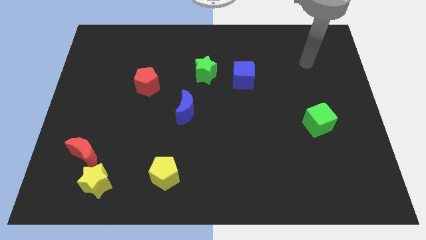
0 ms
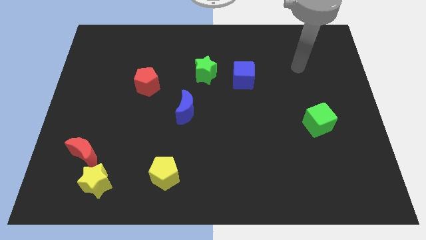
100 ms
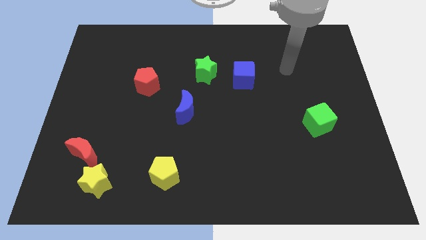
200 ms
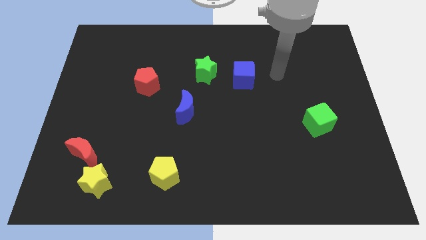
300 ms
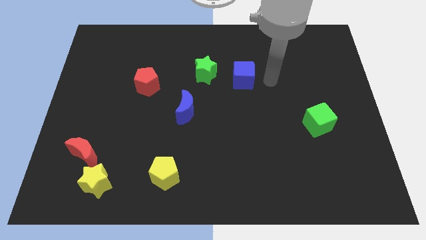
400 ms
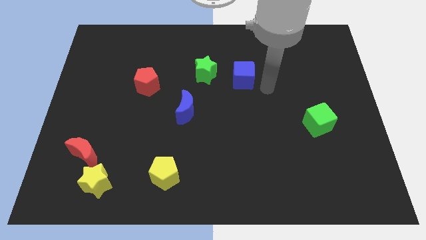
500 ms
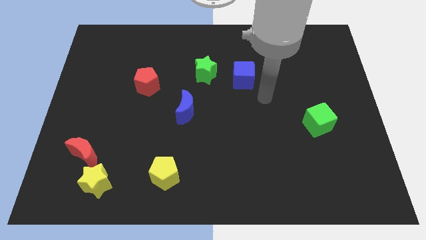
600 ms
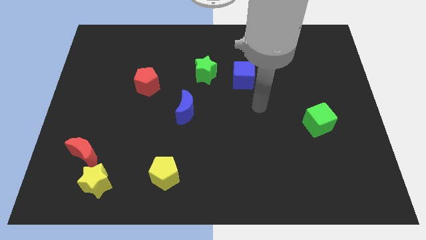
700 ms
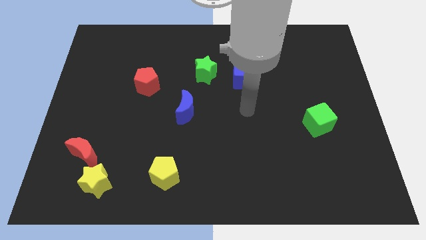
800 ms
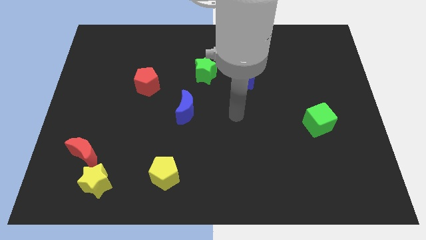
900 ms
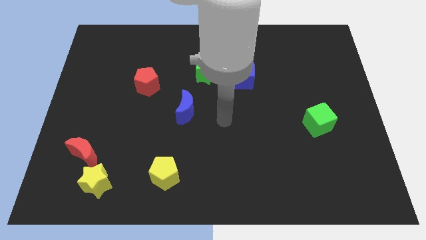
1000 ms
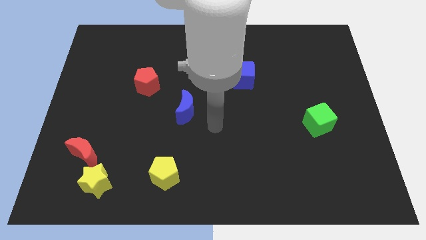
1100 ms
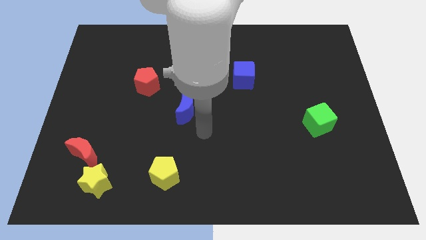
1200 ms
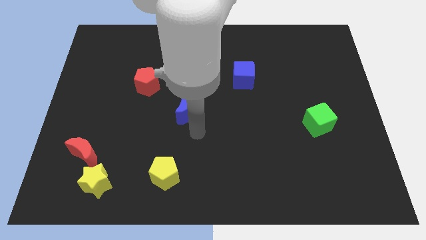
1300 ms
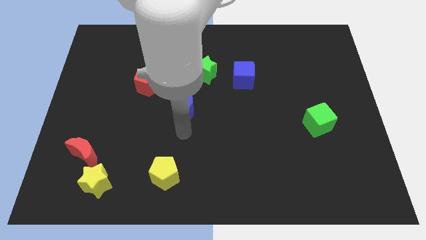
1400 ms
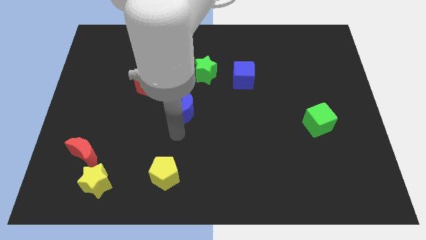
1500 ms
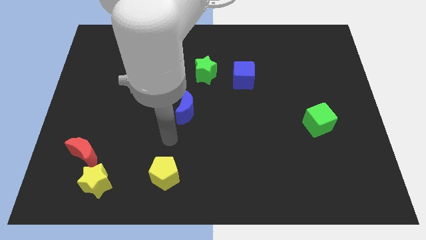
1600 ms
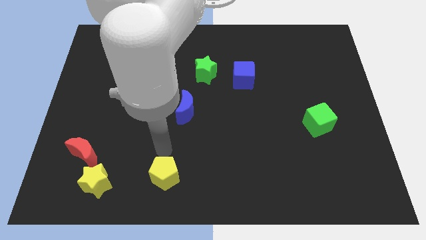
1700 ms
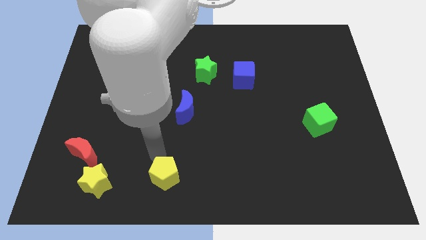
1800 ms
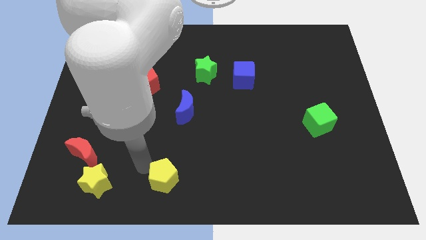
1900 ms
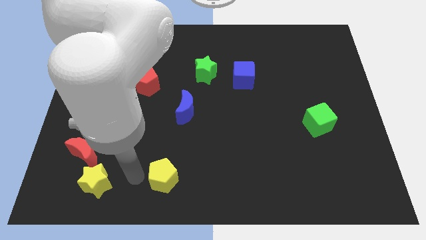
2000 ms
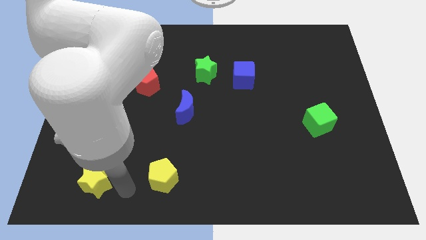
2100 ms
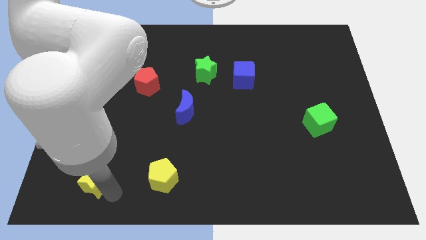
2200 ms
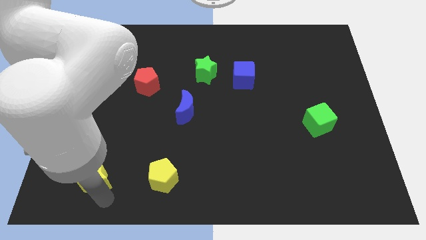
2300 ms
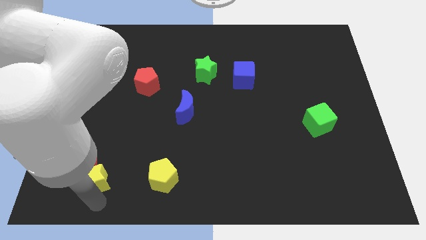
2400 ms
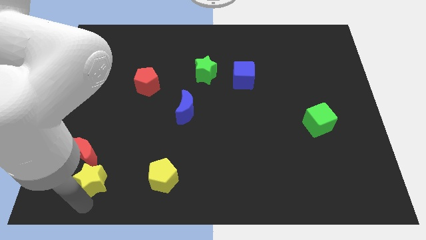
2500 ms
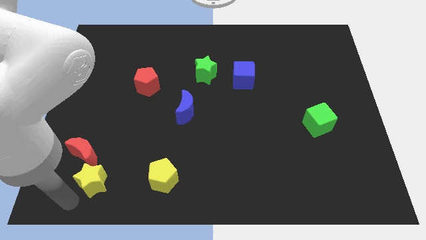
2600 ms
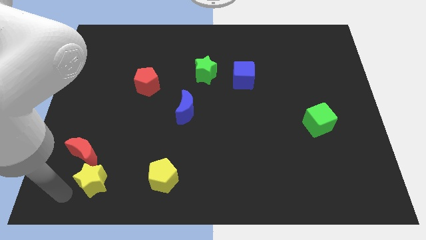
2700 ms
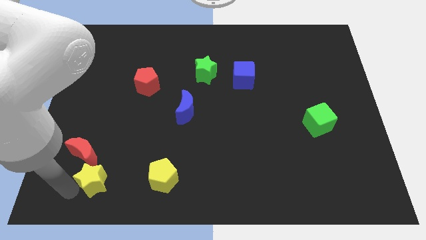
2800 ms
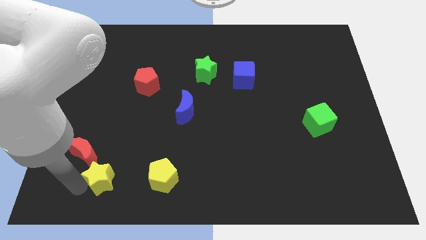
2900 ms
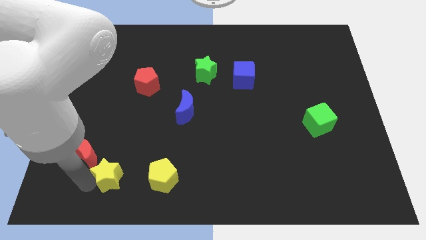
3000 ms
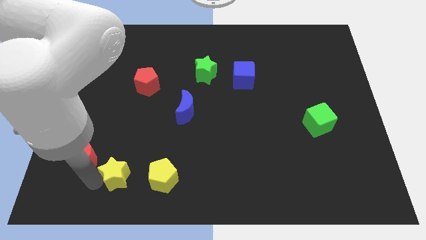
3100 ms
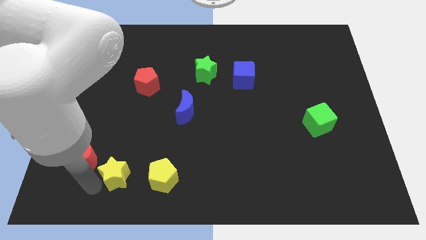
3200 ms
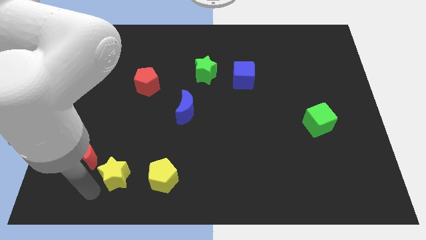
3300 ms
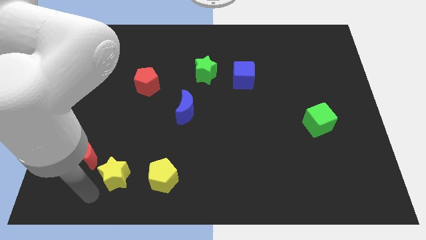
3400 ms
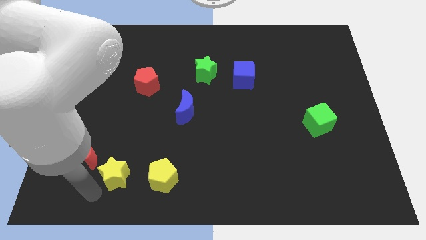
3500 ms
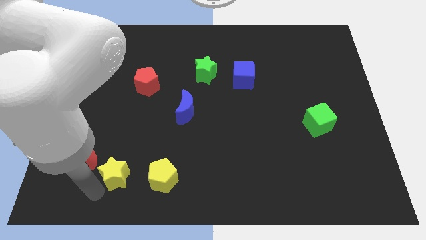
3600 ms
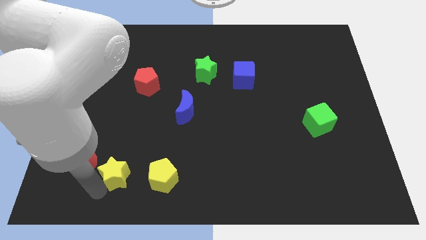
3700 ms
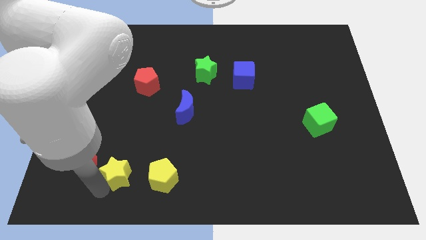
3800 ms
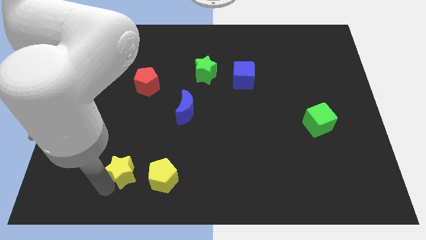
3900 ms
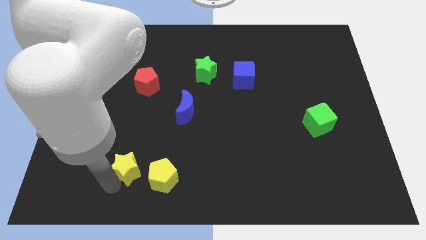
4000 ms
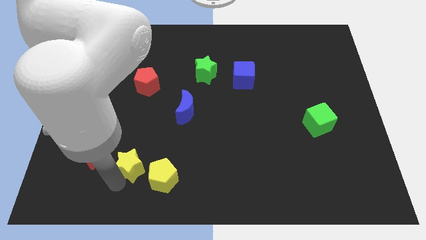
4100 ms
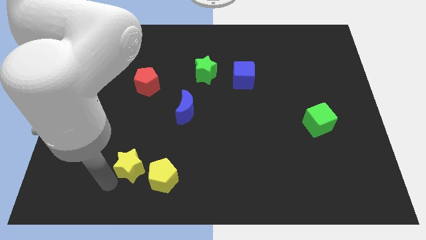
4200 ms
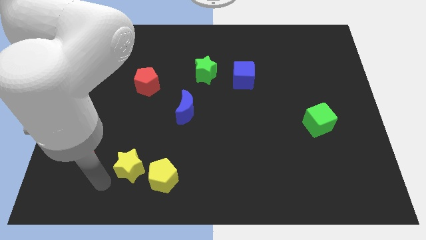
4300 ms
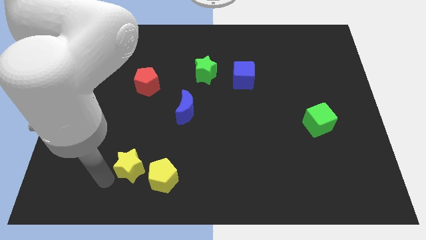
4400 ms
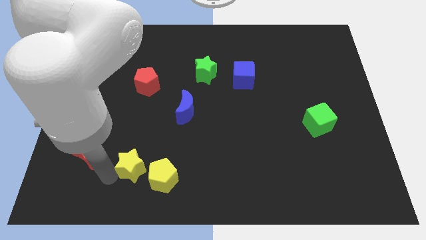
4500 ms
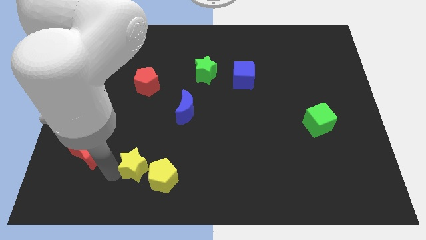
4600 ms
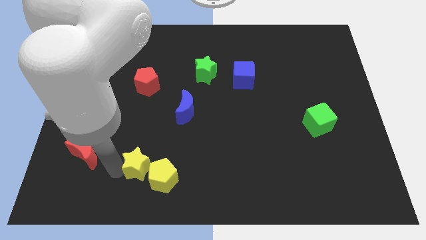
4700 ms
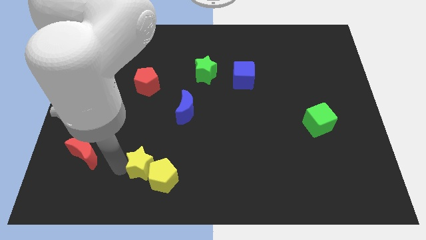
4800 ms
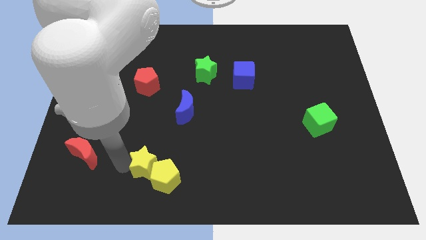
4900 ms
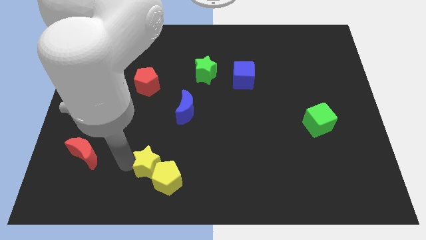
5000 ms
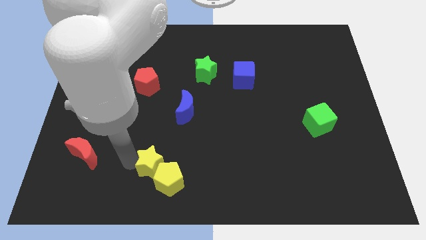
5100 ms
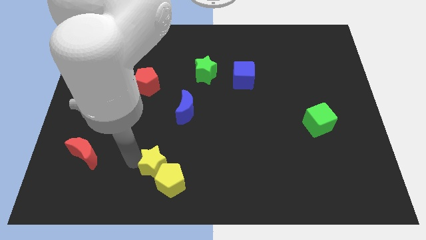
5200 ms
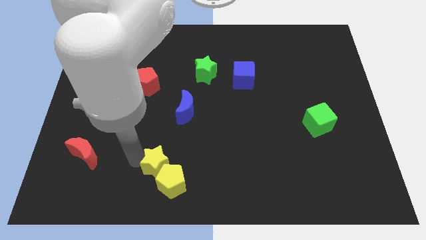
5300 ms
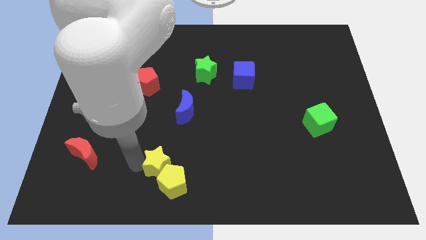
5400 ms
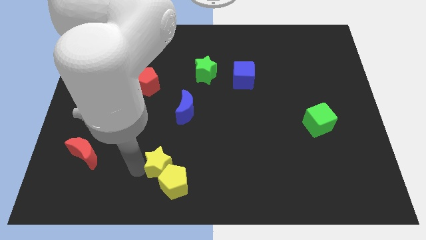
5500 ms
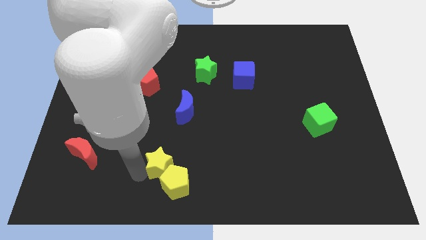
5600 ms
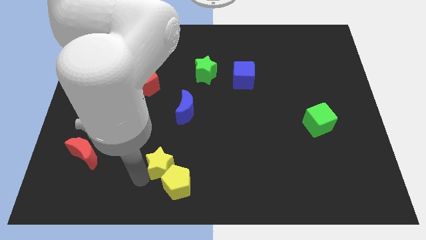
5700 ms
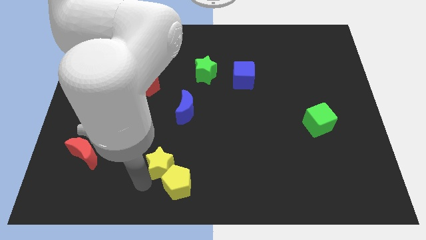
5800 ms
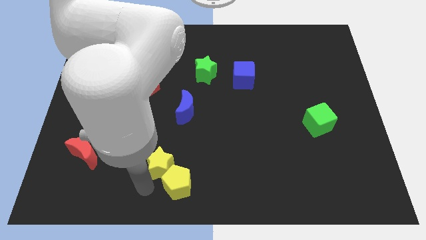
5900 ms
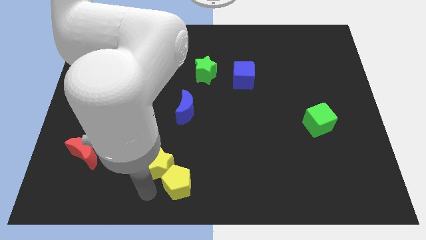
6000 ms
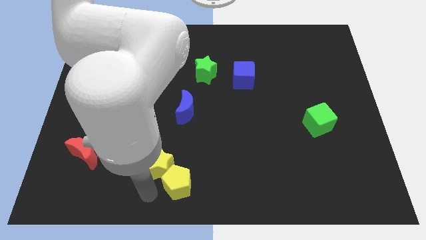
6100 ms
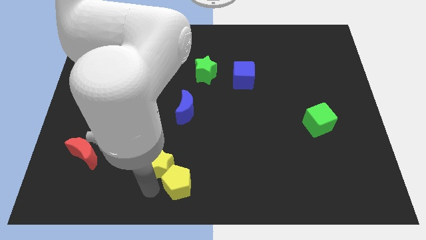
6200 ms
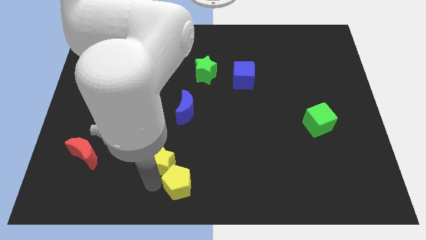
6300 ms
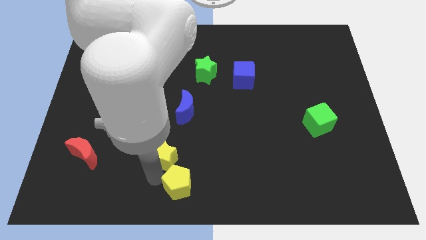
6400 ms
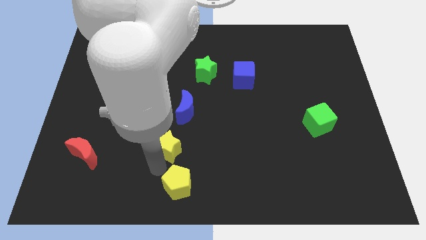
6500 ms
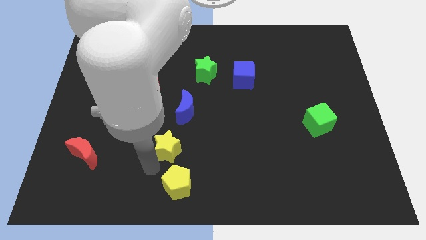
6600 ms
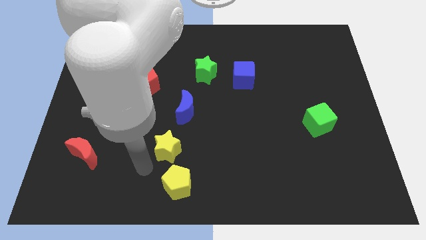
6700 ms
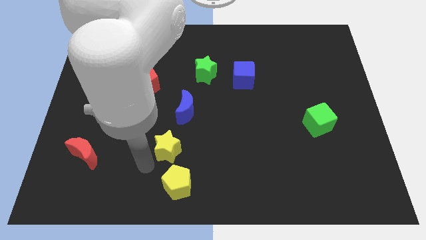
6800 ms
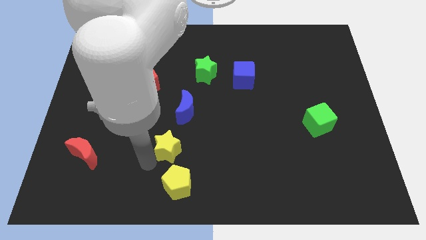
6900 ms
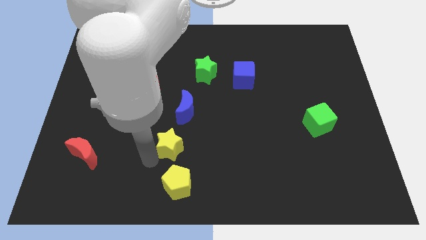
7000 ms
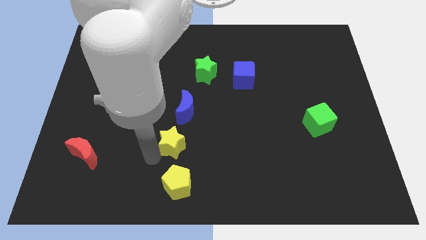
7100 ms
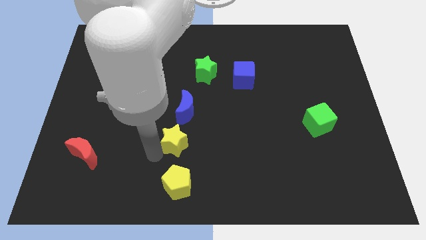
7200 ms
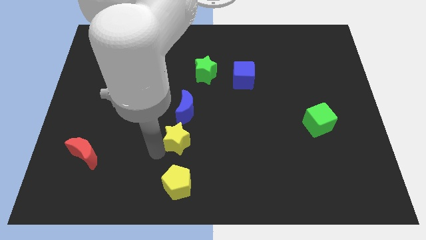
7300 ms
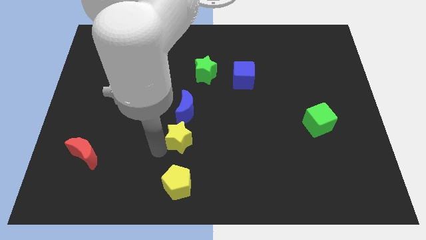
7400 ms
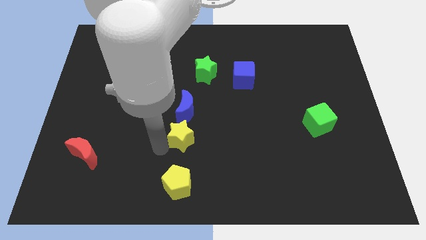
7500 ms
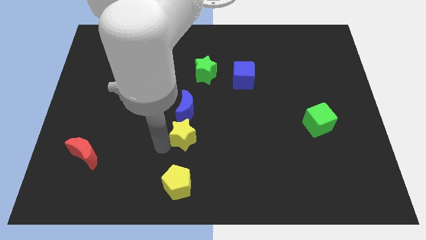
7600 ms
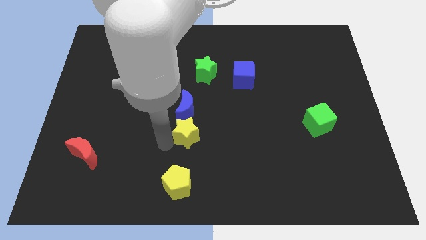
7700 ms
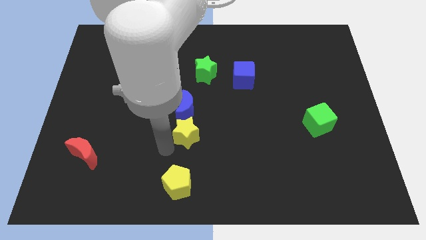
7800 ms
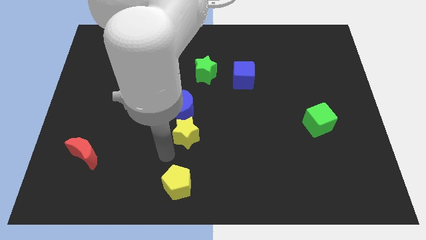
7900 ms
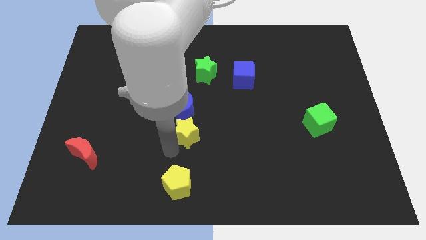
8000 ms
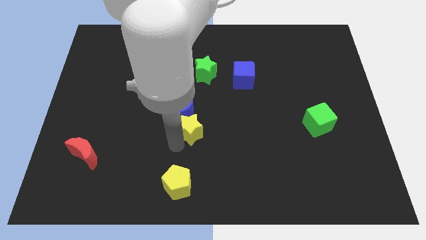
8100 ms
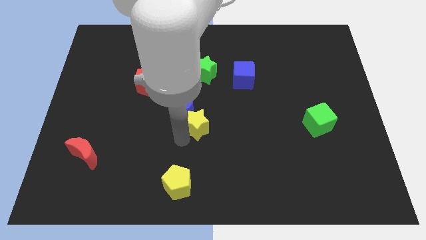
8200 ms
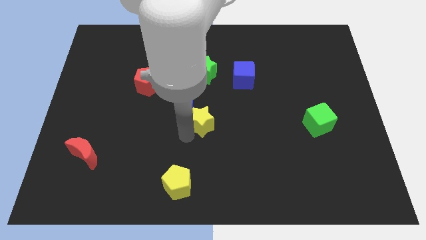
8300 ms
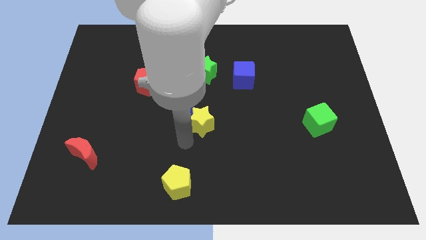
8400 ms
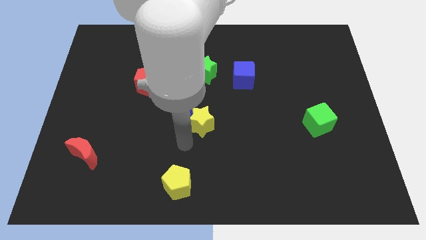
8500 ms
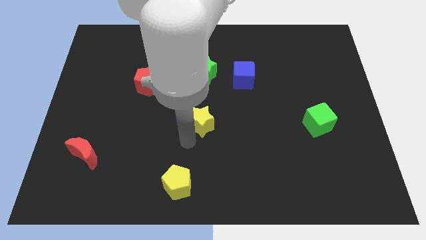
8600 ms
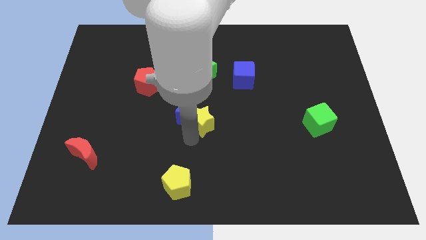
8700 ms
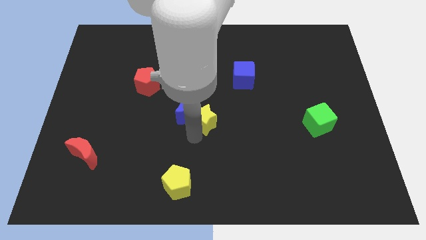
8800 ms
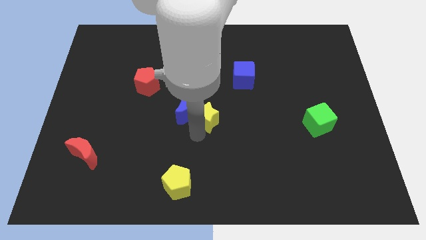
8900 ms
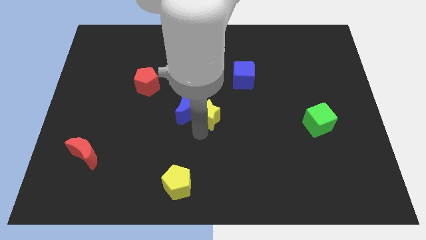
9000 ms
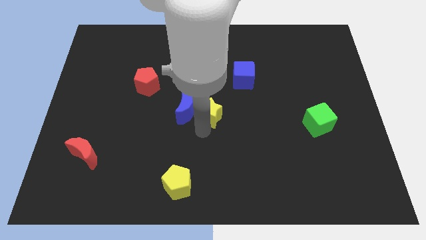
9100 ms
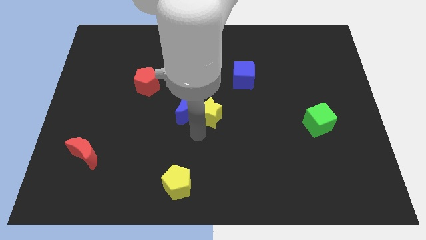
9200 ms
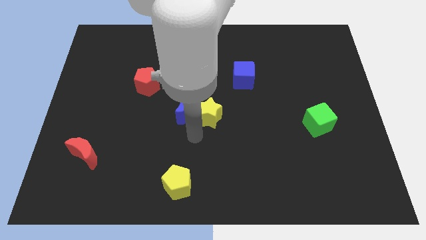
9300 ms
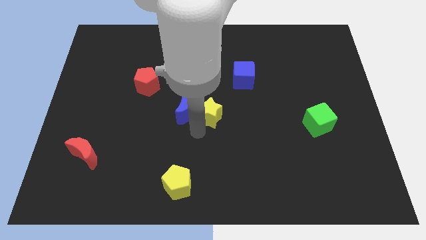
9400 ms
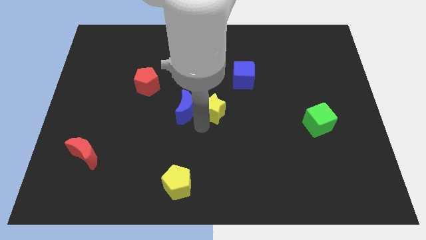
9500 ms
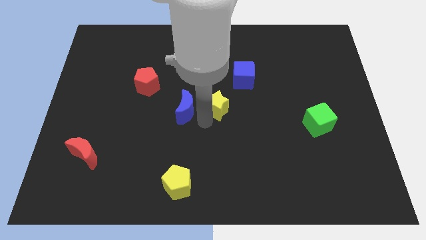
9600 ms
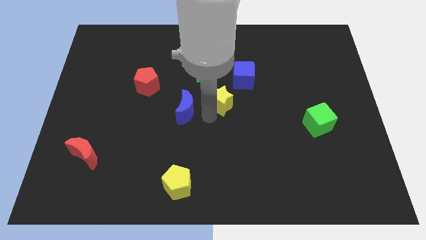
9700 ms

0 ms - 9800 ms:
push the yellow star to the bottom right side of the green star
